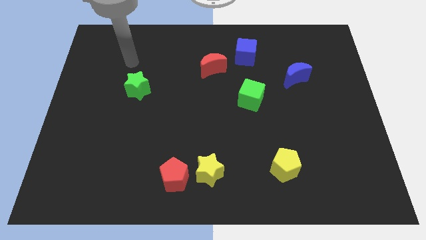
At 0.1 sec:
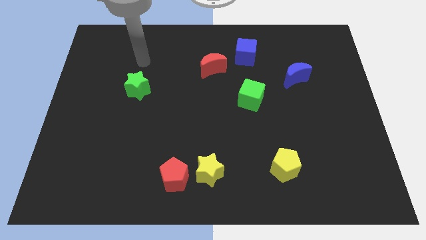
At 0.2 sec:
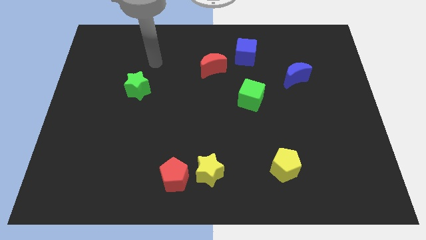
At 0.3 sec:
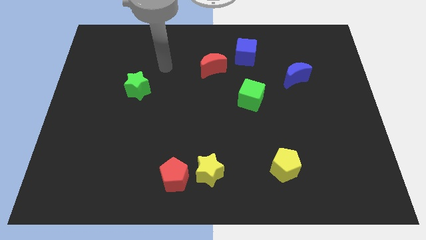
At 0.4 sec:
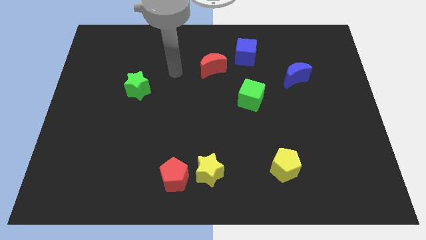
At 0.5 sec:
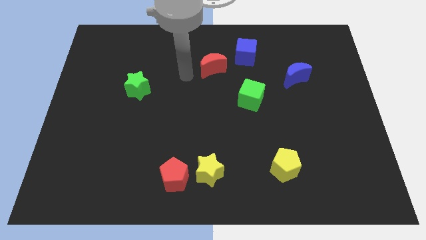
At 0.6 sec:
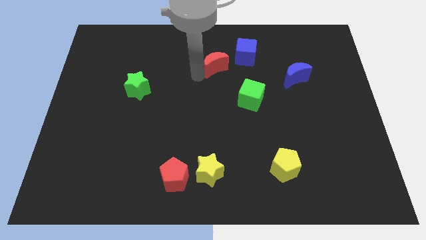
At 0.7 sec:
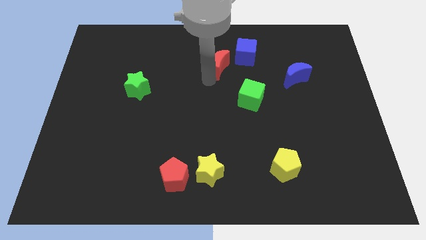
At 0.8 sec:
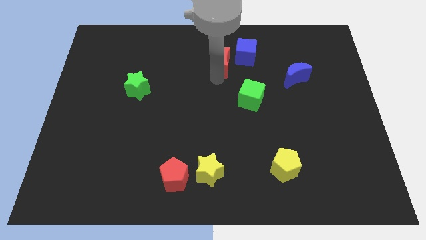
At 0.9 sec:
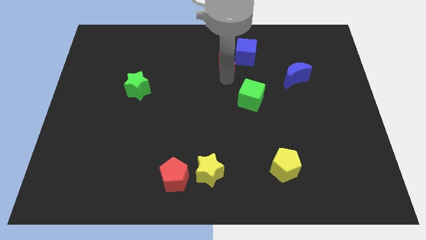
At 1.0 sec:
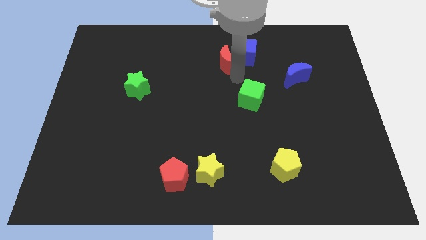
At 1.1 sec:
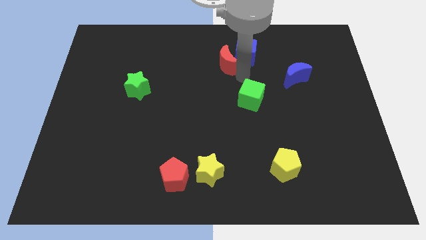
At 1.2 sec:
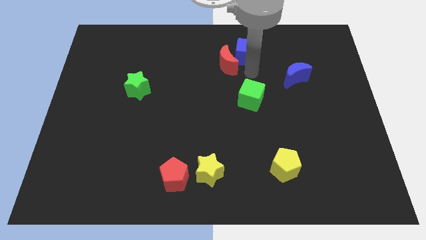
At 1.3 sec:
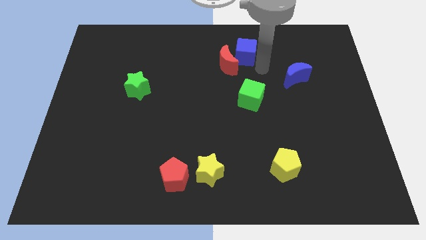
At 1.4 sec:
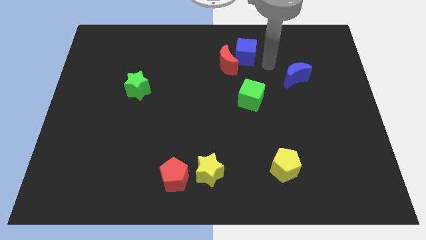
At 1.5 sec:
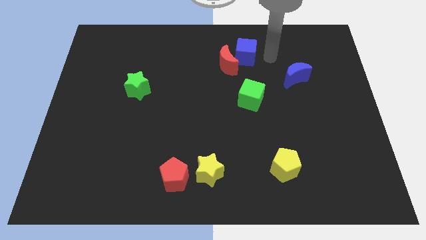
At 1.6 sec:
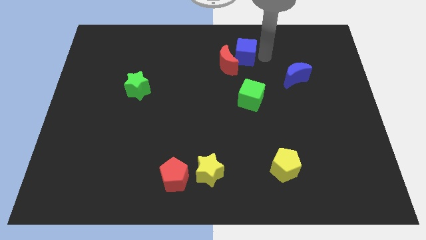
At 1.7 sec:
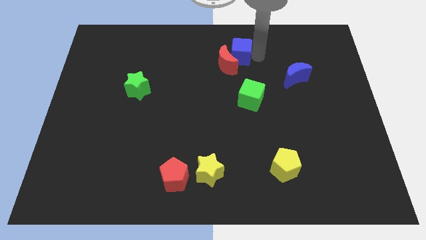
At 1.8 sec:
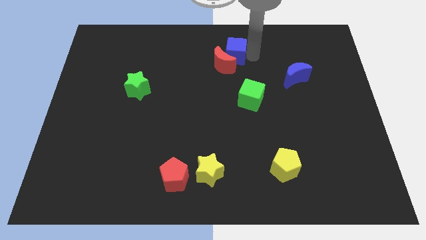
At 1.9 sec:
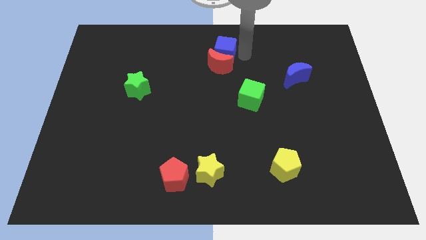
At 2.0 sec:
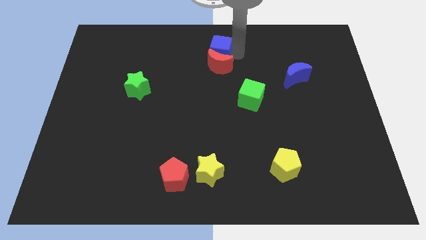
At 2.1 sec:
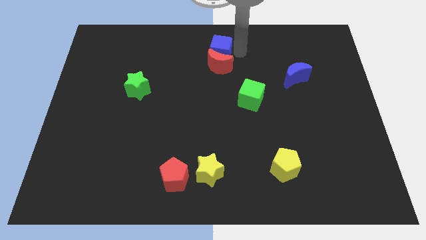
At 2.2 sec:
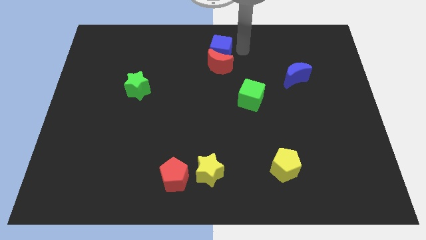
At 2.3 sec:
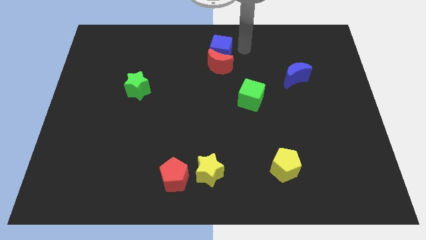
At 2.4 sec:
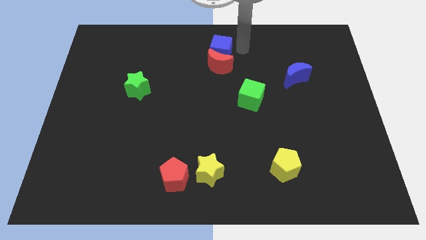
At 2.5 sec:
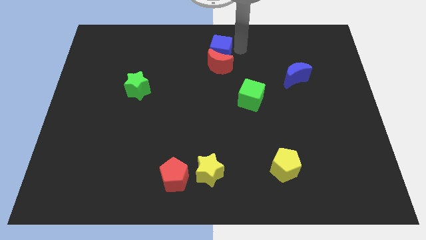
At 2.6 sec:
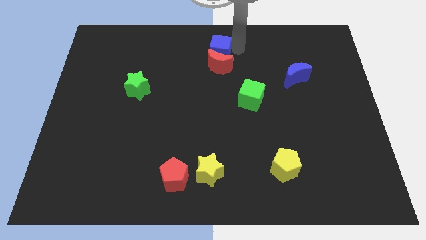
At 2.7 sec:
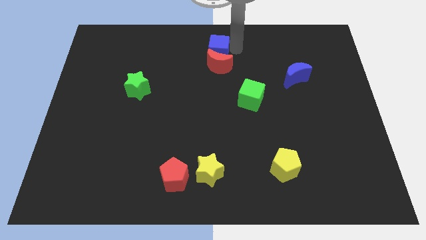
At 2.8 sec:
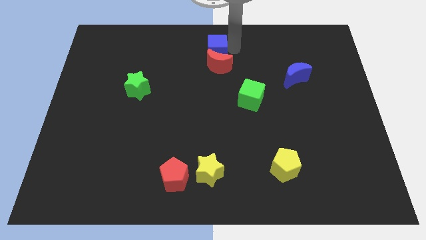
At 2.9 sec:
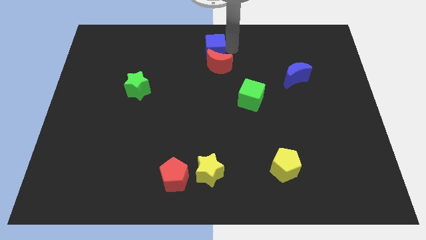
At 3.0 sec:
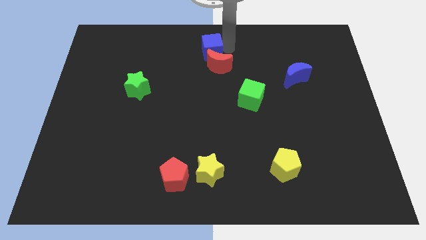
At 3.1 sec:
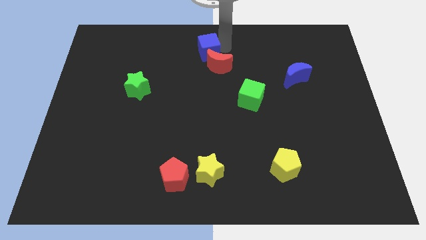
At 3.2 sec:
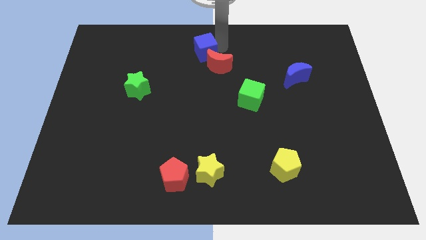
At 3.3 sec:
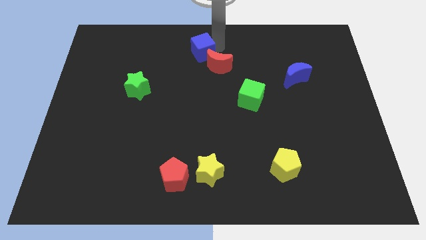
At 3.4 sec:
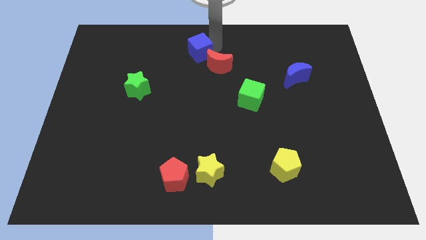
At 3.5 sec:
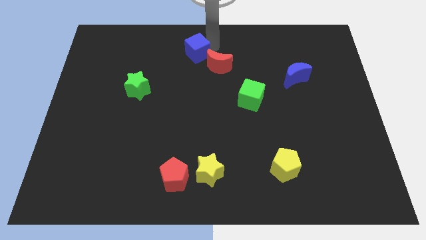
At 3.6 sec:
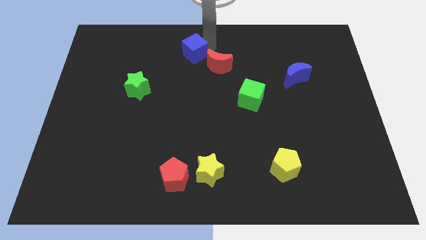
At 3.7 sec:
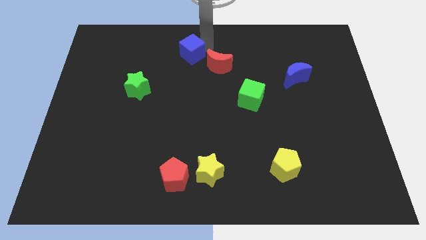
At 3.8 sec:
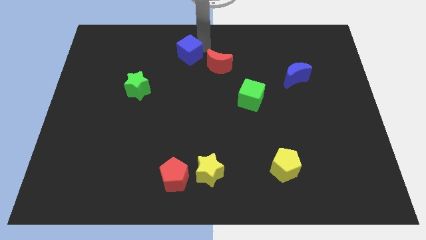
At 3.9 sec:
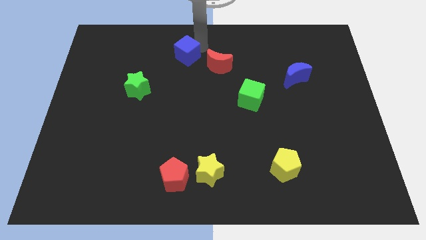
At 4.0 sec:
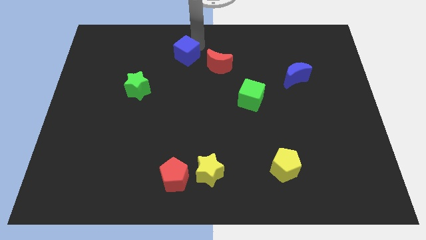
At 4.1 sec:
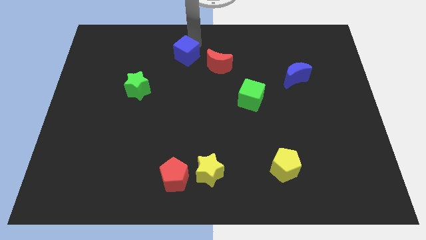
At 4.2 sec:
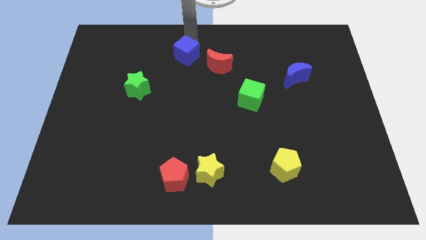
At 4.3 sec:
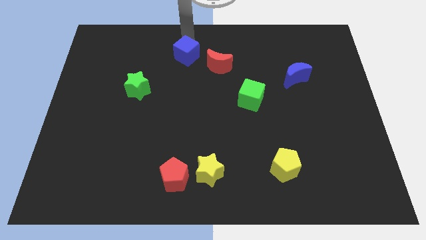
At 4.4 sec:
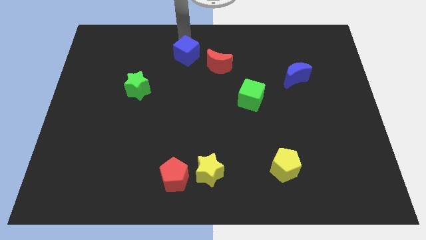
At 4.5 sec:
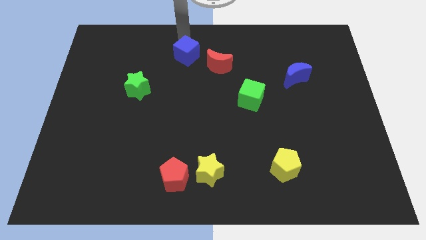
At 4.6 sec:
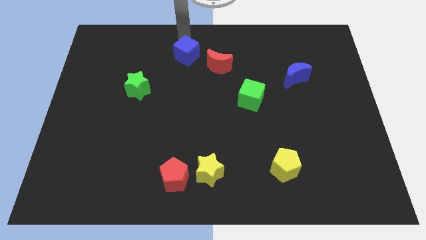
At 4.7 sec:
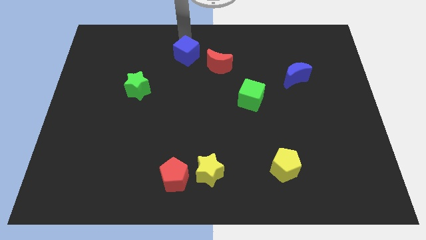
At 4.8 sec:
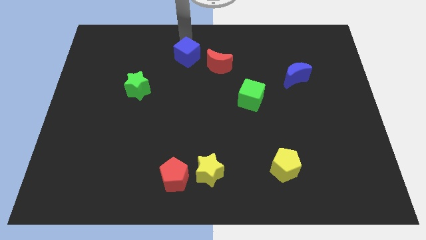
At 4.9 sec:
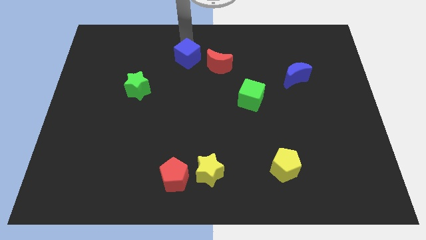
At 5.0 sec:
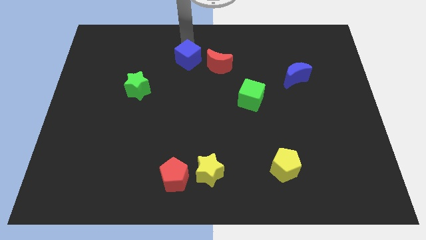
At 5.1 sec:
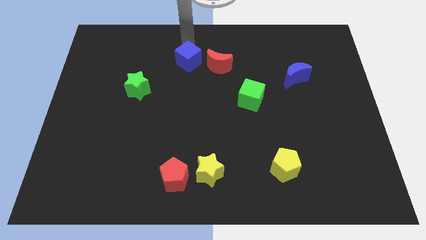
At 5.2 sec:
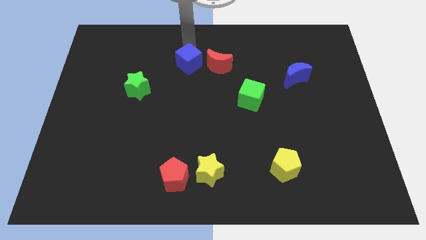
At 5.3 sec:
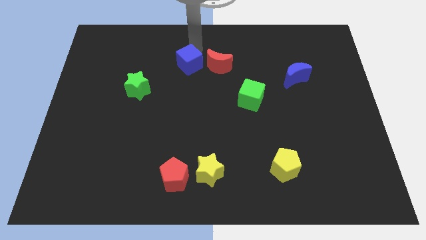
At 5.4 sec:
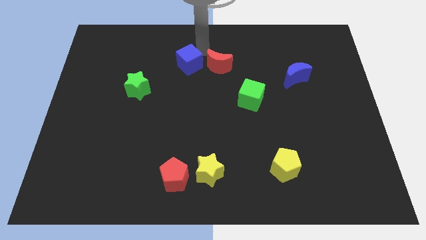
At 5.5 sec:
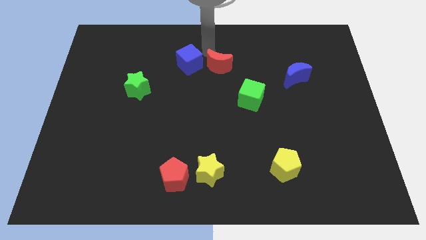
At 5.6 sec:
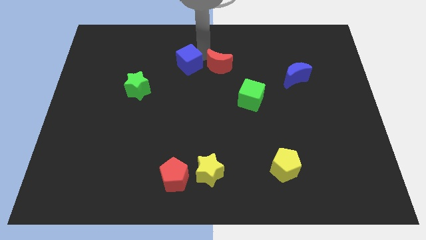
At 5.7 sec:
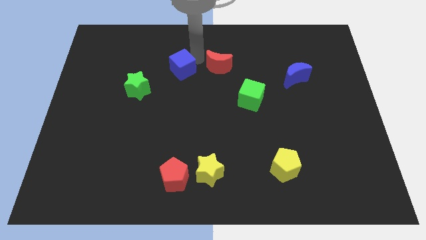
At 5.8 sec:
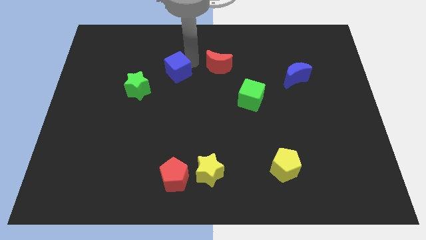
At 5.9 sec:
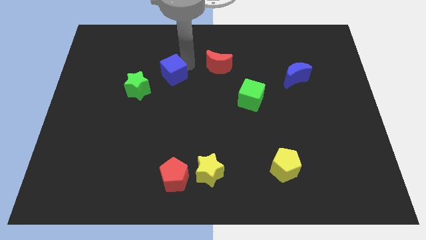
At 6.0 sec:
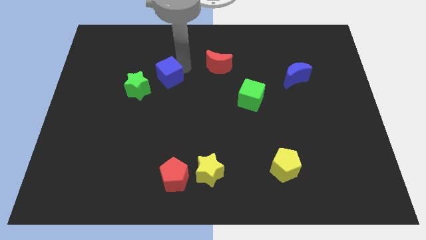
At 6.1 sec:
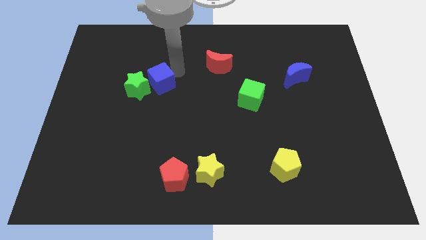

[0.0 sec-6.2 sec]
slide the blue cube to the green star

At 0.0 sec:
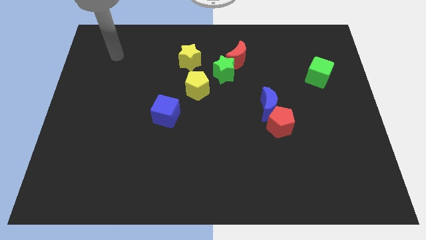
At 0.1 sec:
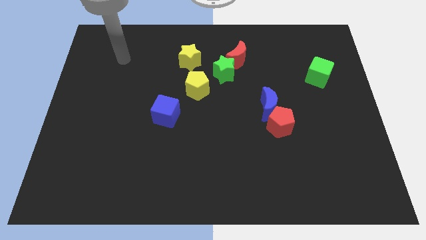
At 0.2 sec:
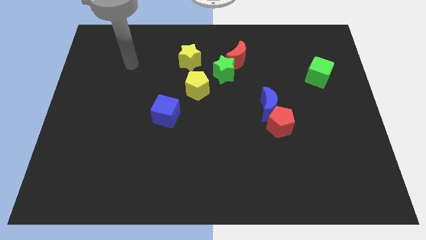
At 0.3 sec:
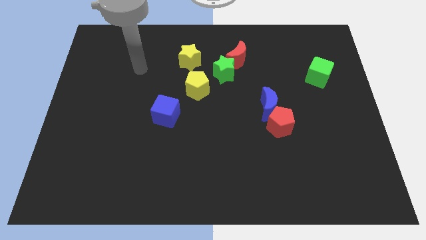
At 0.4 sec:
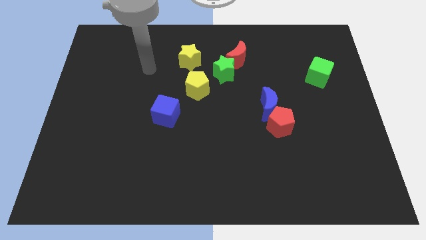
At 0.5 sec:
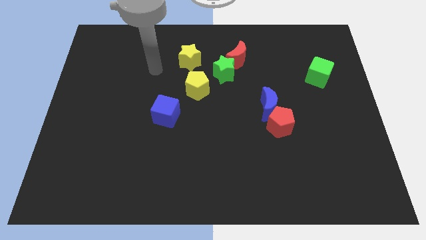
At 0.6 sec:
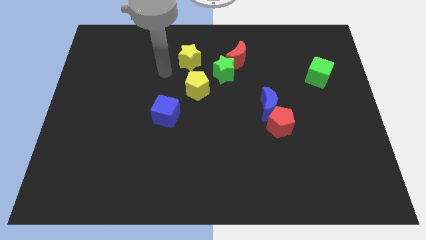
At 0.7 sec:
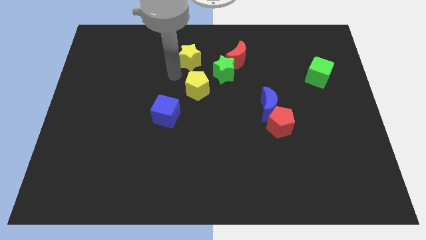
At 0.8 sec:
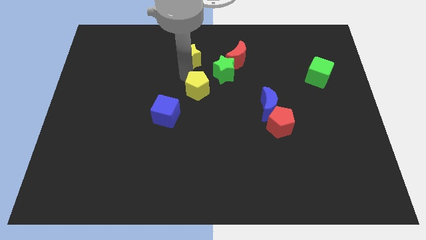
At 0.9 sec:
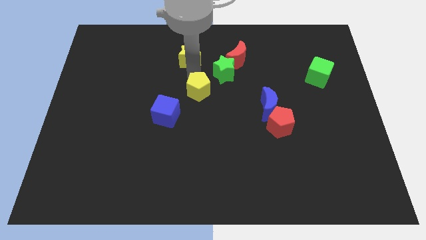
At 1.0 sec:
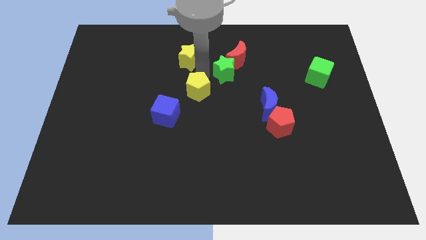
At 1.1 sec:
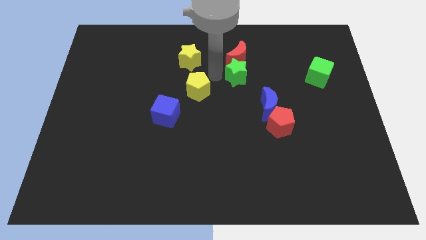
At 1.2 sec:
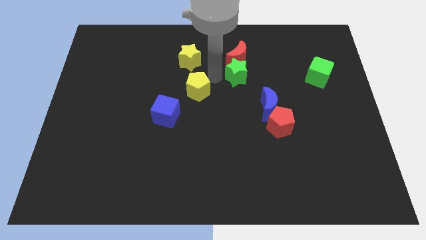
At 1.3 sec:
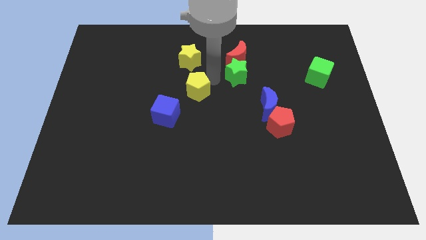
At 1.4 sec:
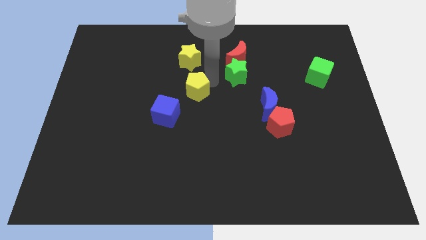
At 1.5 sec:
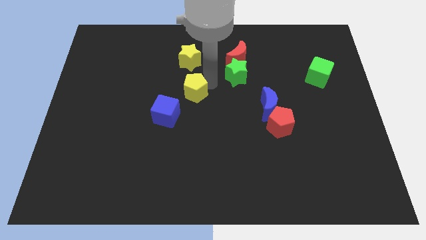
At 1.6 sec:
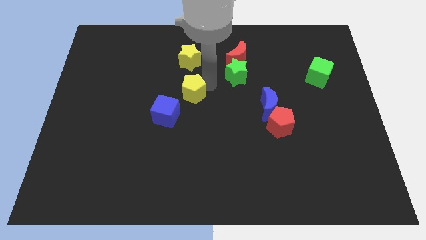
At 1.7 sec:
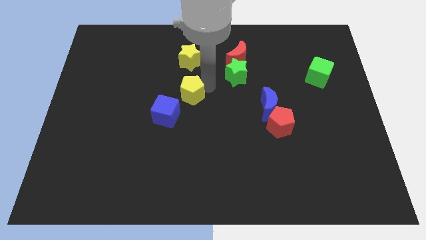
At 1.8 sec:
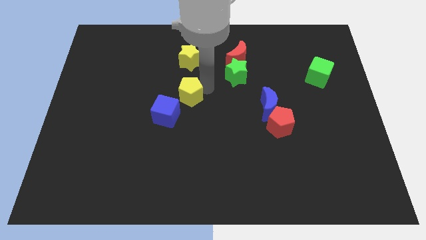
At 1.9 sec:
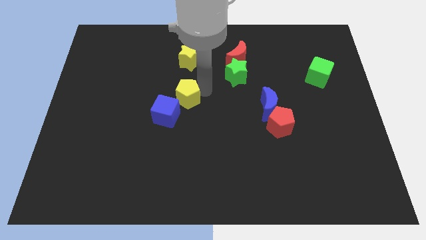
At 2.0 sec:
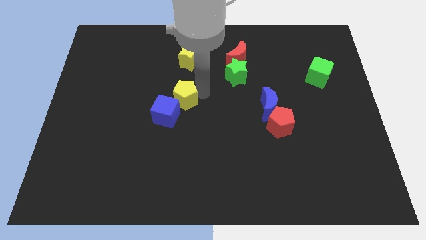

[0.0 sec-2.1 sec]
slide the yellow pentagon to the blue cube
